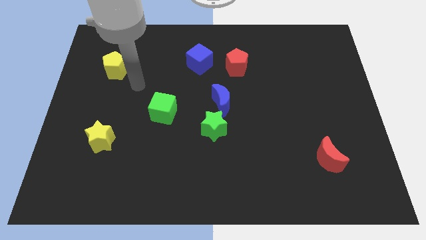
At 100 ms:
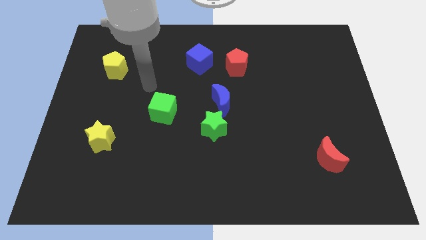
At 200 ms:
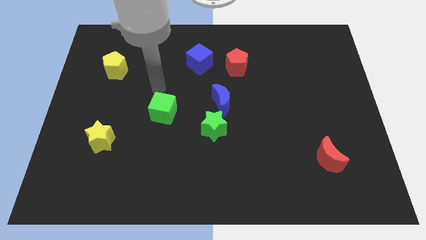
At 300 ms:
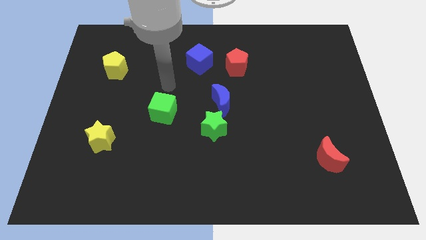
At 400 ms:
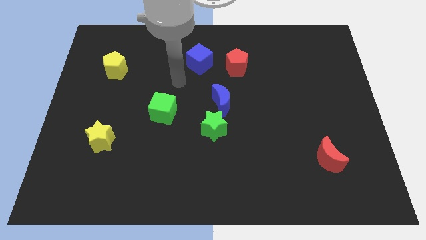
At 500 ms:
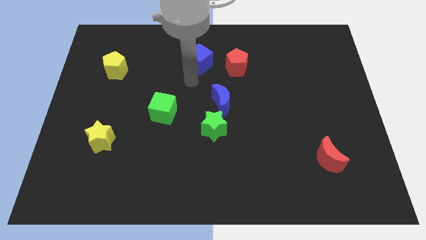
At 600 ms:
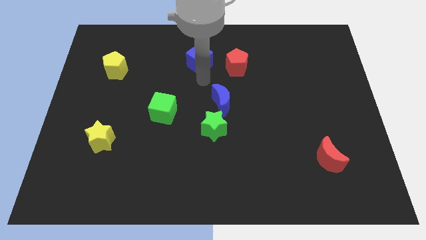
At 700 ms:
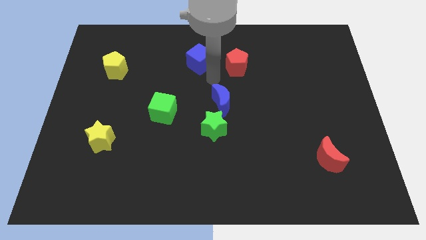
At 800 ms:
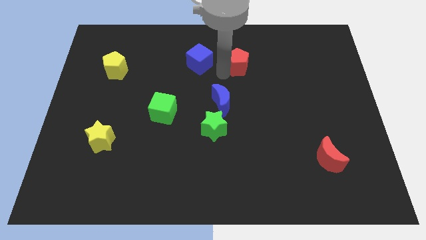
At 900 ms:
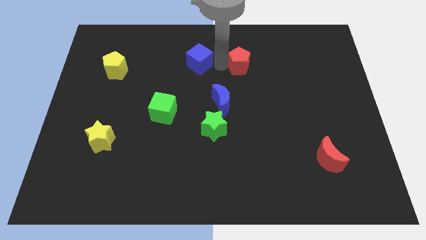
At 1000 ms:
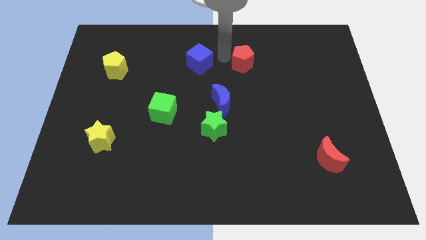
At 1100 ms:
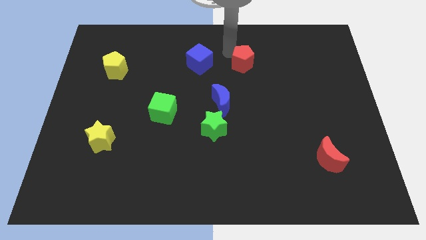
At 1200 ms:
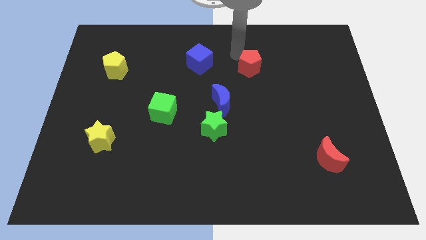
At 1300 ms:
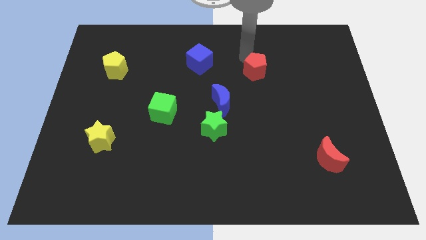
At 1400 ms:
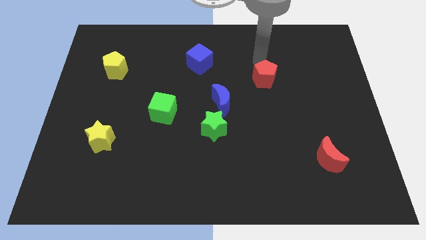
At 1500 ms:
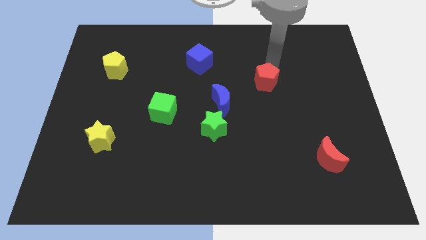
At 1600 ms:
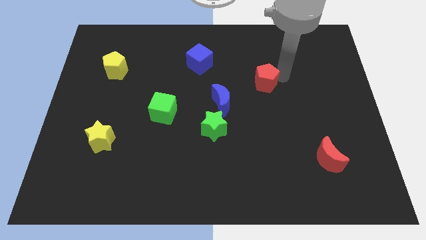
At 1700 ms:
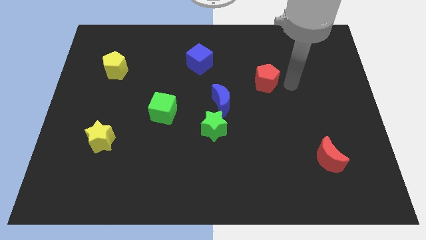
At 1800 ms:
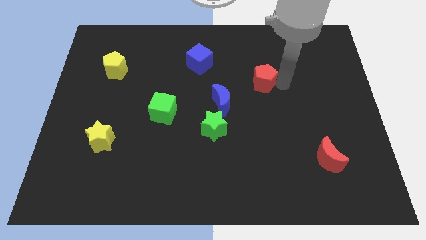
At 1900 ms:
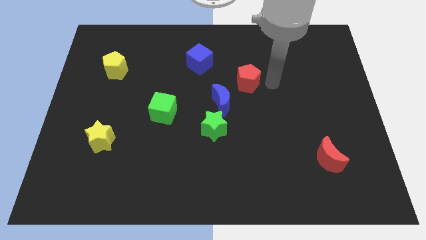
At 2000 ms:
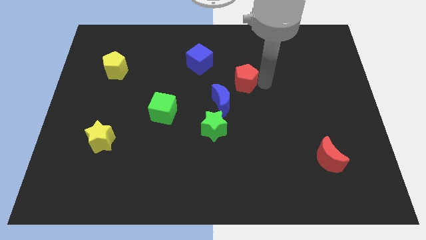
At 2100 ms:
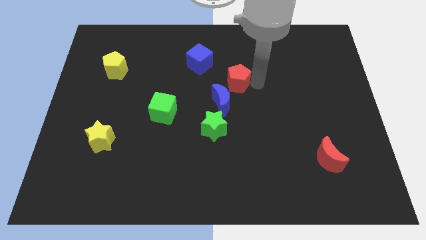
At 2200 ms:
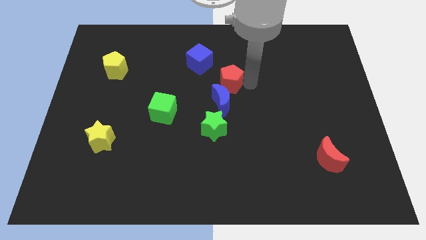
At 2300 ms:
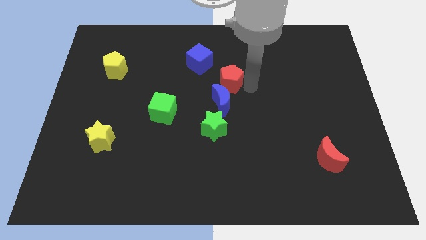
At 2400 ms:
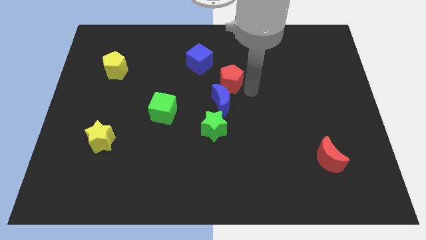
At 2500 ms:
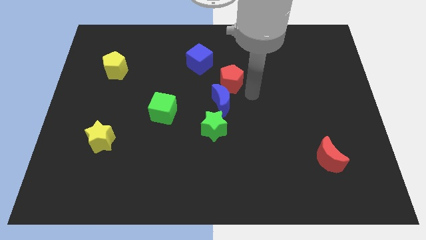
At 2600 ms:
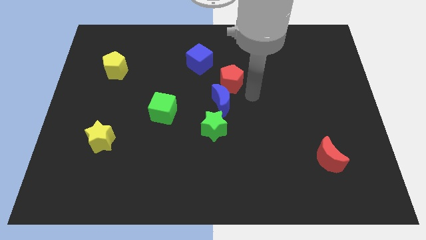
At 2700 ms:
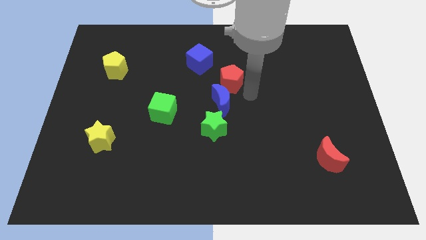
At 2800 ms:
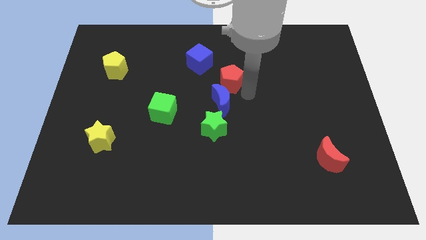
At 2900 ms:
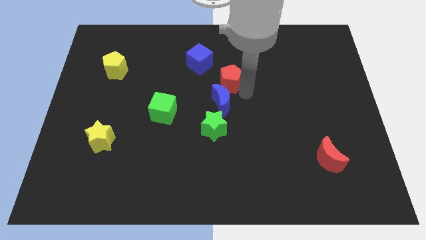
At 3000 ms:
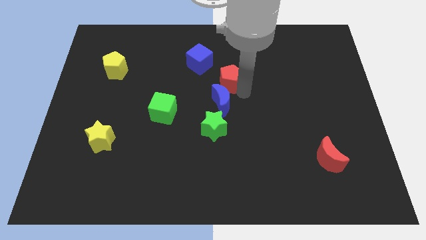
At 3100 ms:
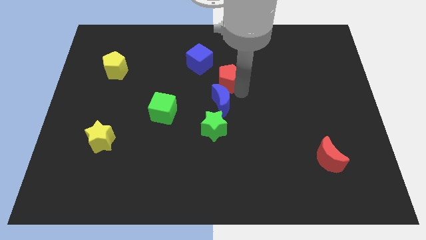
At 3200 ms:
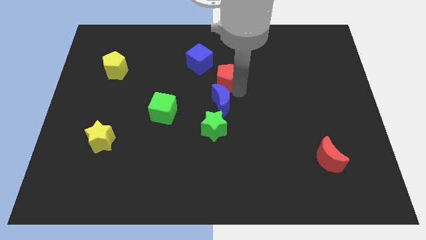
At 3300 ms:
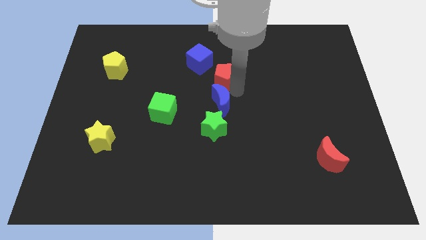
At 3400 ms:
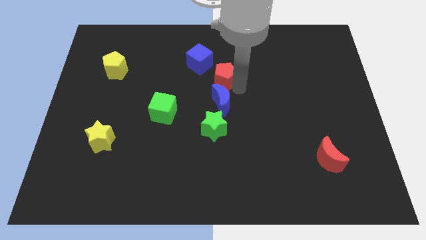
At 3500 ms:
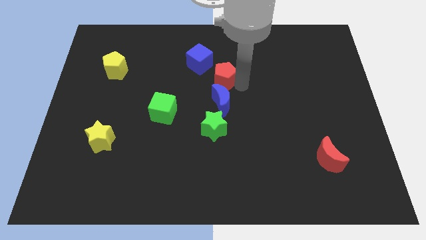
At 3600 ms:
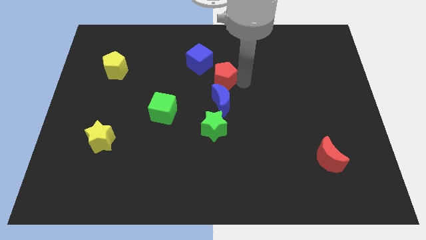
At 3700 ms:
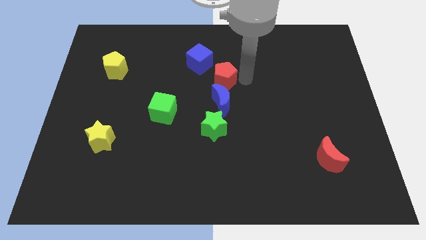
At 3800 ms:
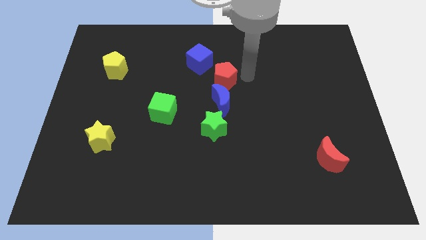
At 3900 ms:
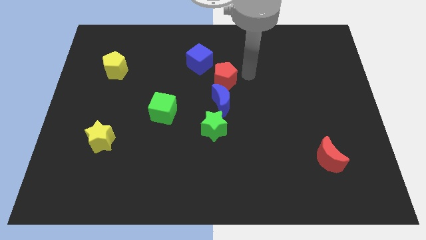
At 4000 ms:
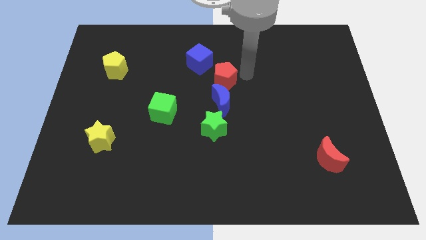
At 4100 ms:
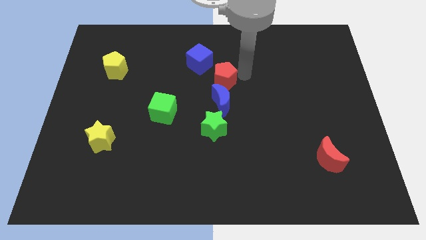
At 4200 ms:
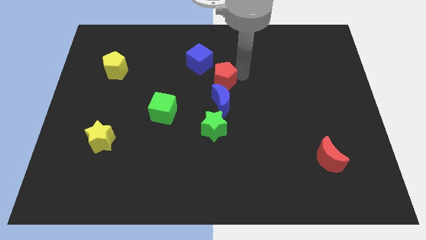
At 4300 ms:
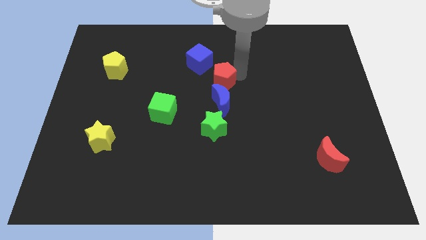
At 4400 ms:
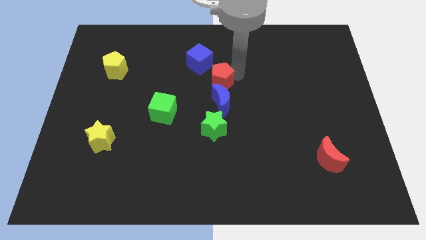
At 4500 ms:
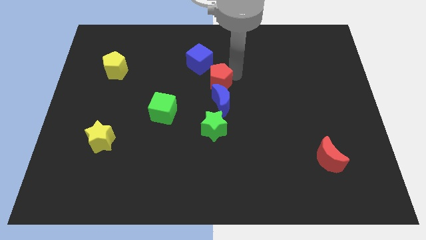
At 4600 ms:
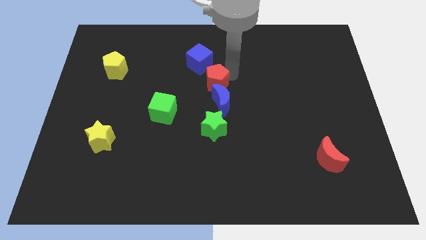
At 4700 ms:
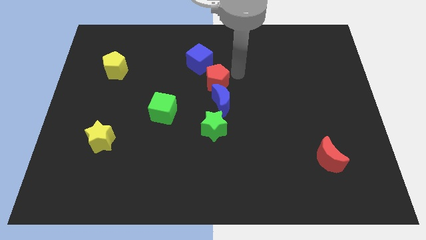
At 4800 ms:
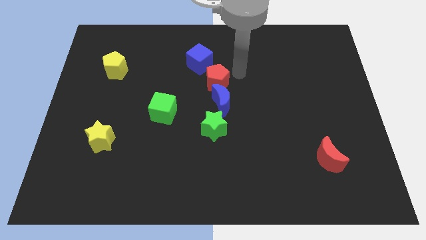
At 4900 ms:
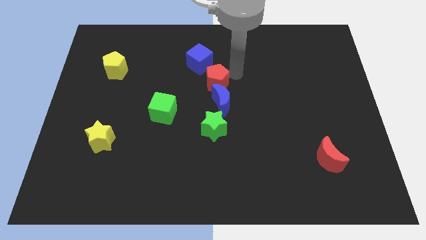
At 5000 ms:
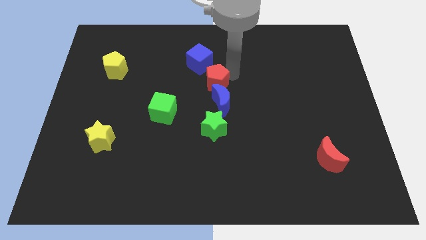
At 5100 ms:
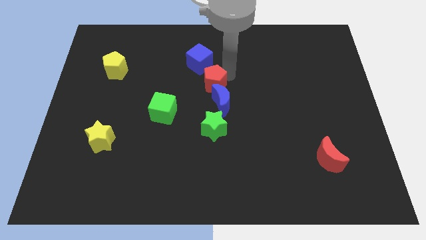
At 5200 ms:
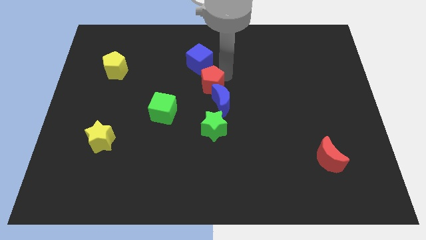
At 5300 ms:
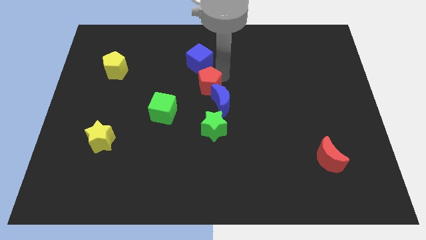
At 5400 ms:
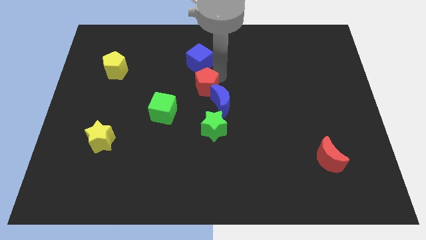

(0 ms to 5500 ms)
push the red pentagon to the top right of the green cube

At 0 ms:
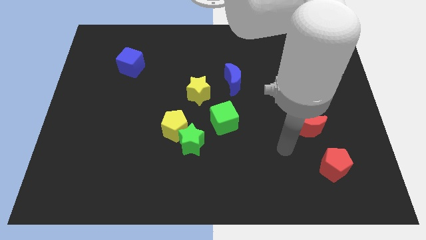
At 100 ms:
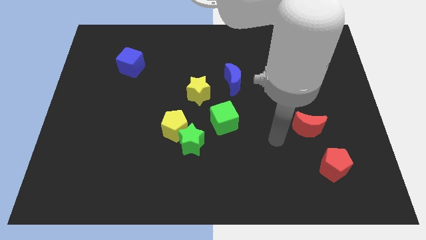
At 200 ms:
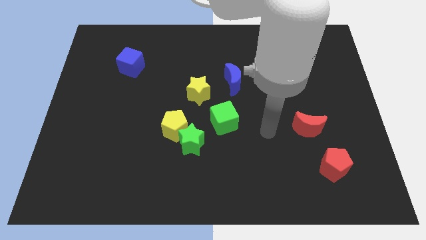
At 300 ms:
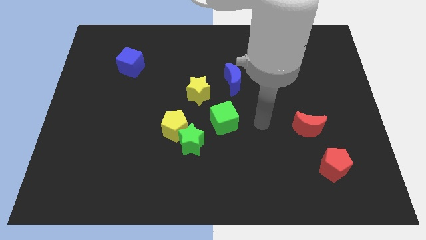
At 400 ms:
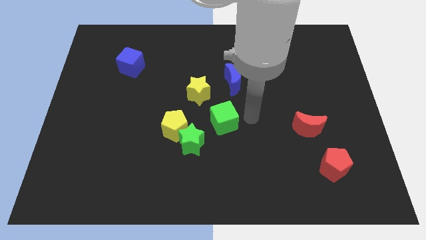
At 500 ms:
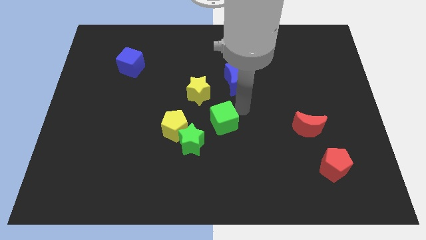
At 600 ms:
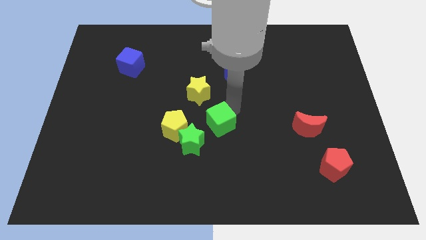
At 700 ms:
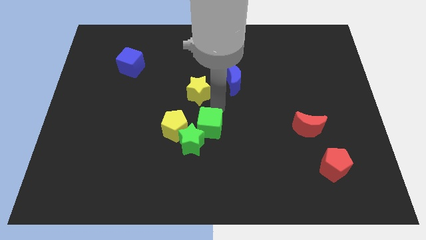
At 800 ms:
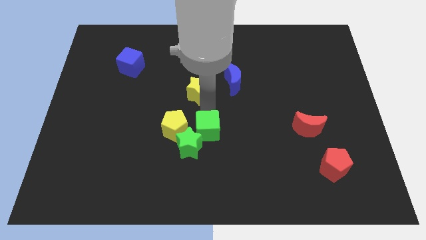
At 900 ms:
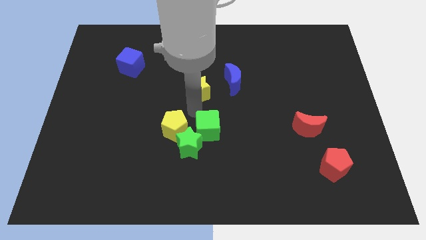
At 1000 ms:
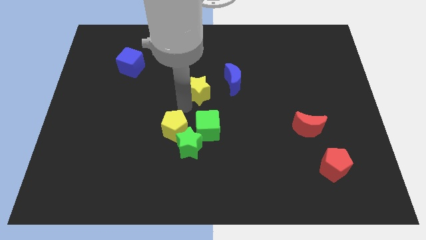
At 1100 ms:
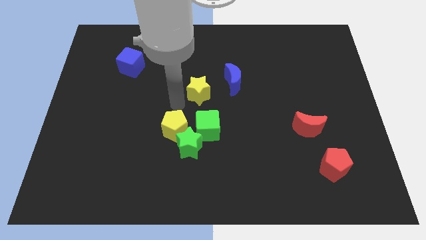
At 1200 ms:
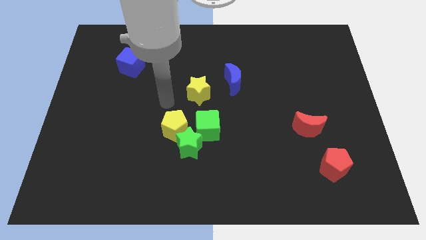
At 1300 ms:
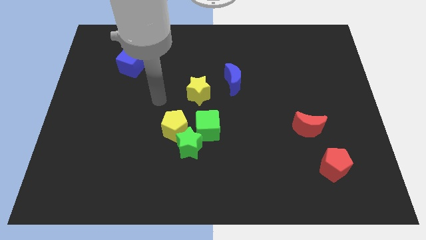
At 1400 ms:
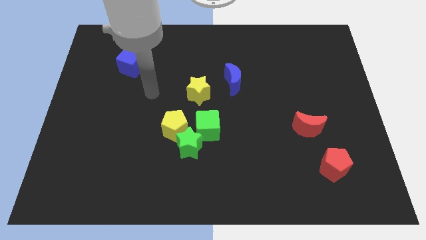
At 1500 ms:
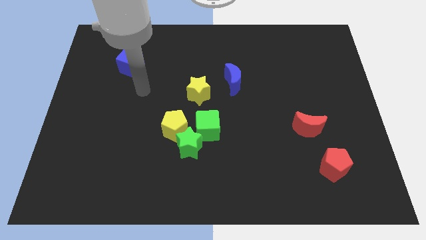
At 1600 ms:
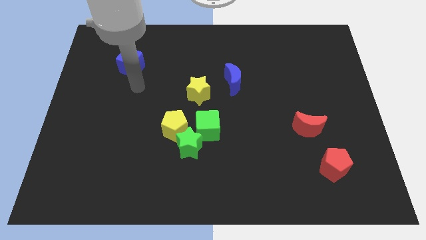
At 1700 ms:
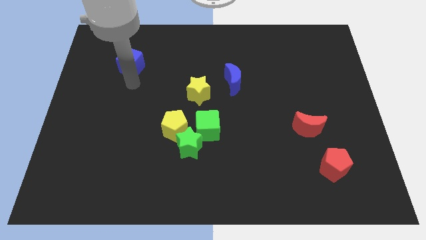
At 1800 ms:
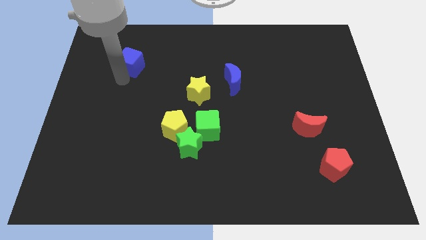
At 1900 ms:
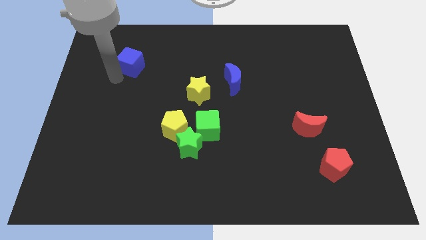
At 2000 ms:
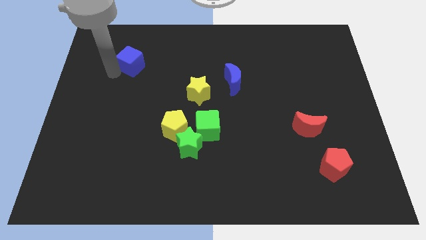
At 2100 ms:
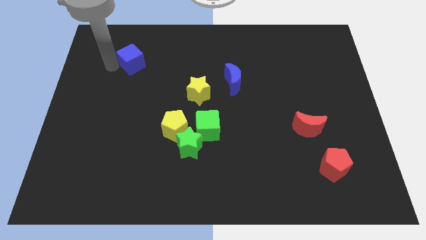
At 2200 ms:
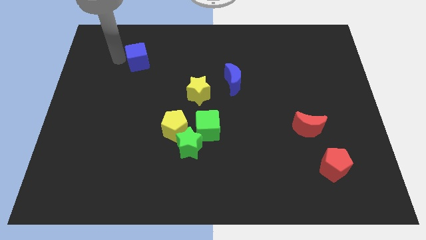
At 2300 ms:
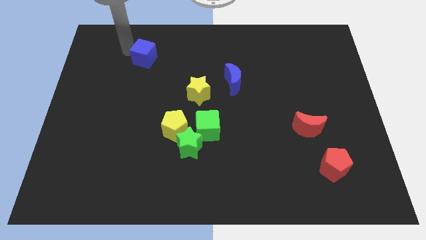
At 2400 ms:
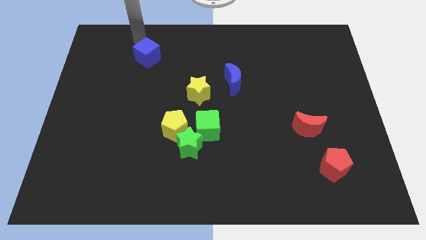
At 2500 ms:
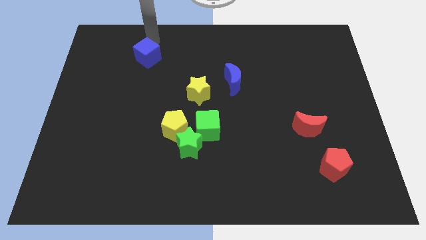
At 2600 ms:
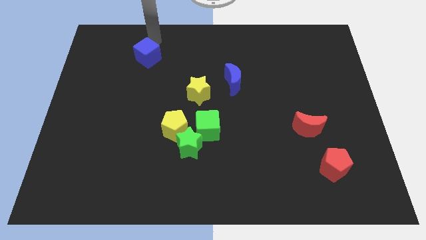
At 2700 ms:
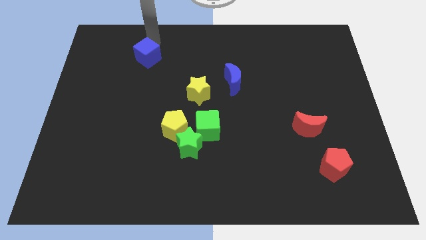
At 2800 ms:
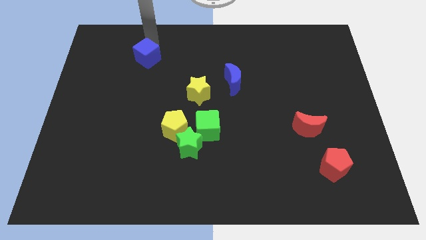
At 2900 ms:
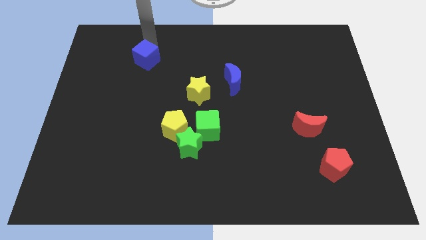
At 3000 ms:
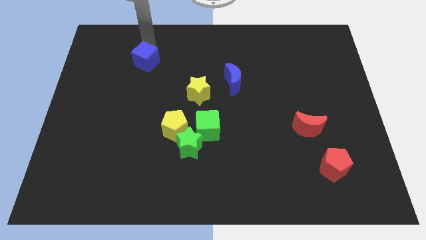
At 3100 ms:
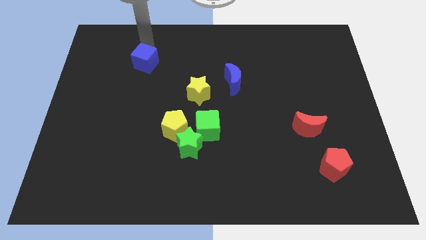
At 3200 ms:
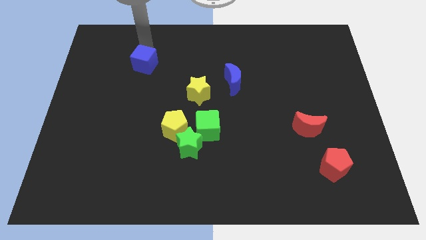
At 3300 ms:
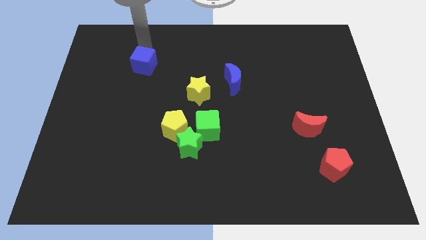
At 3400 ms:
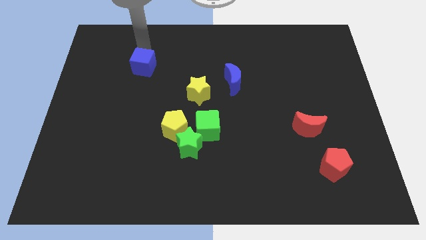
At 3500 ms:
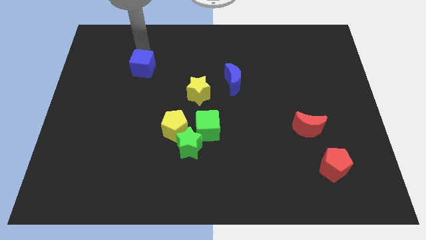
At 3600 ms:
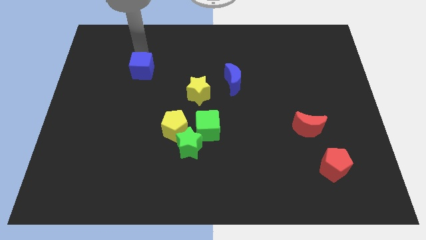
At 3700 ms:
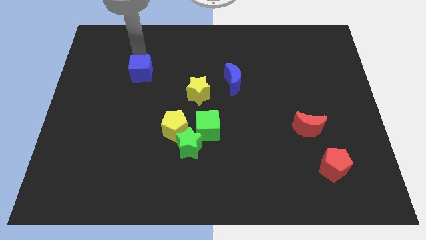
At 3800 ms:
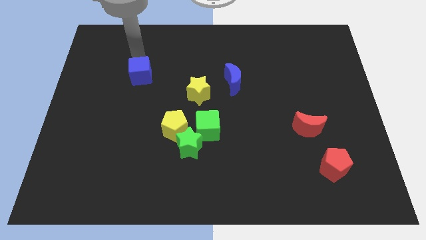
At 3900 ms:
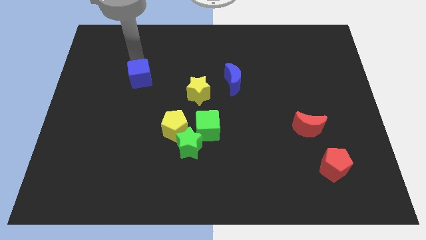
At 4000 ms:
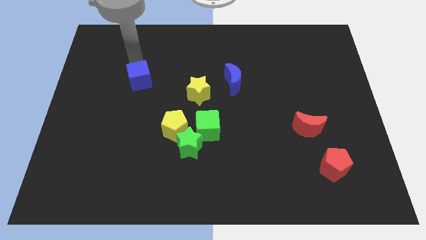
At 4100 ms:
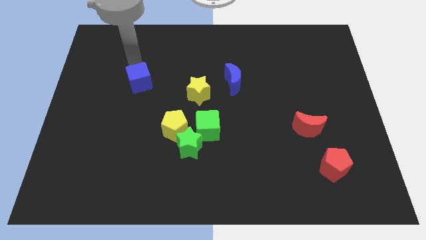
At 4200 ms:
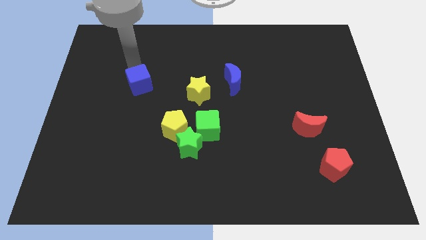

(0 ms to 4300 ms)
move the blue cube just left of the yellow star
